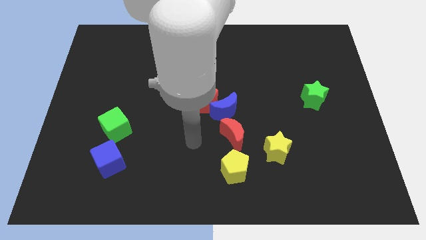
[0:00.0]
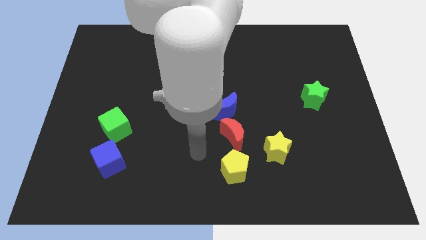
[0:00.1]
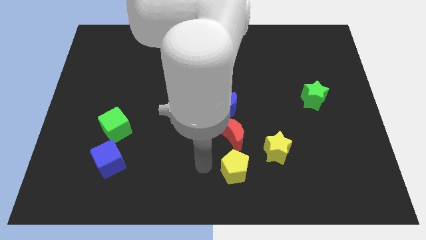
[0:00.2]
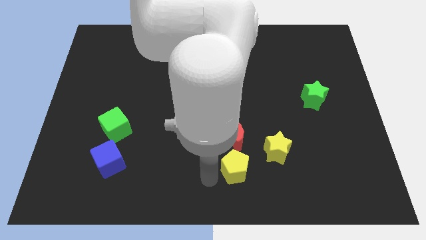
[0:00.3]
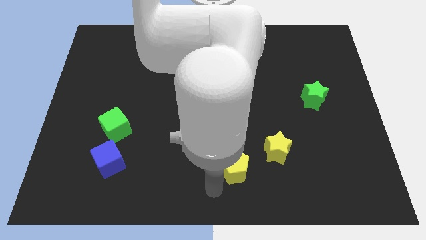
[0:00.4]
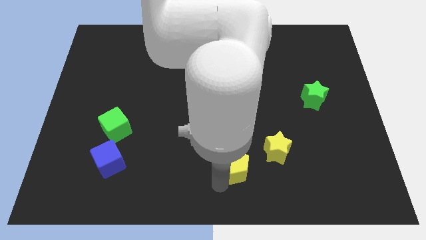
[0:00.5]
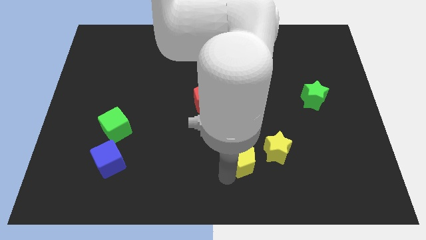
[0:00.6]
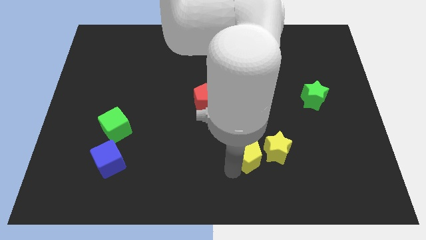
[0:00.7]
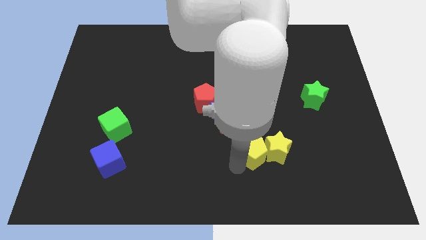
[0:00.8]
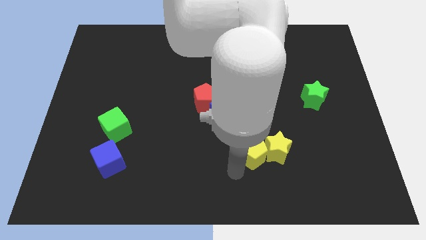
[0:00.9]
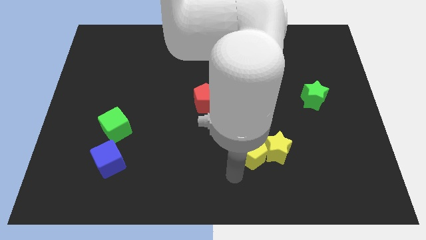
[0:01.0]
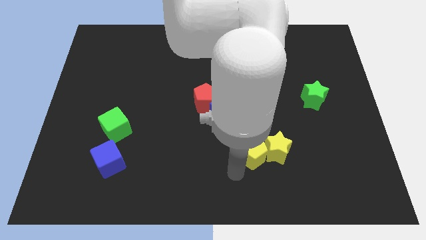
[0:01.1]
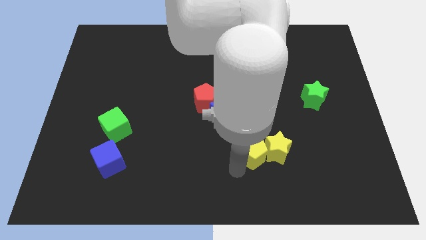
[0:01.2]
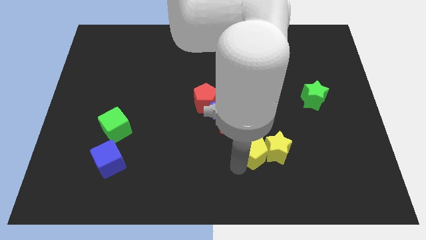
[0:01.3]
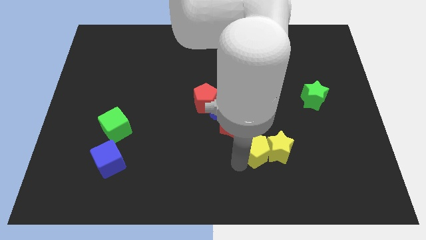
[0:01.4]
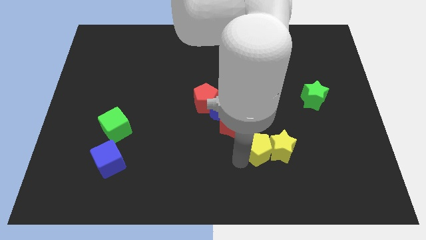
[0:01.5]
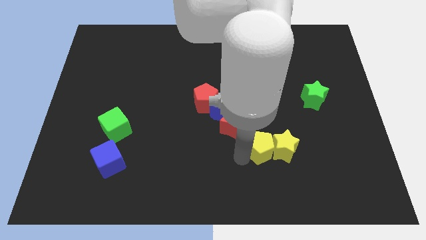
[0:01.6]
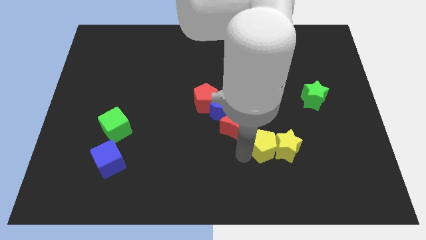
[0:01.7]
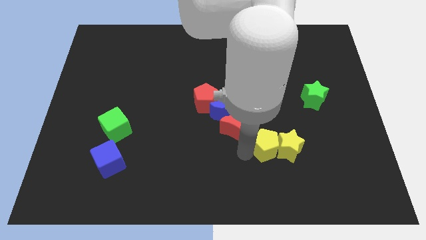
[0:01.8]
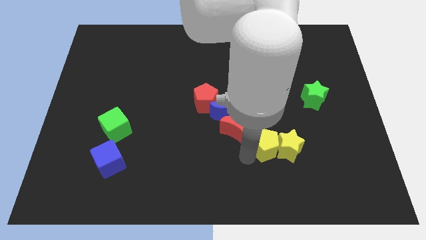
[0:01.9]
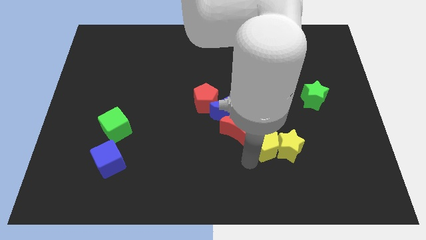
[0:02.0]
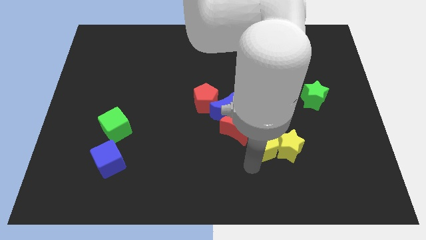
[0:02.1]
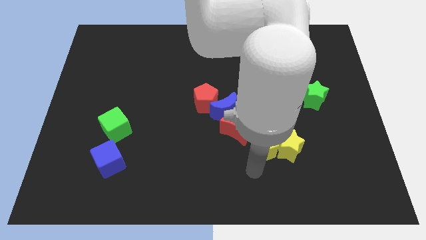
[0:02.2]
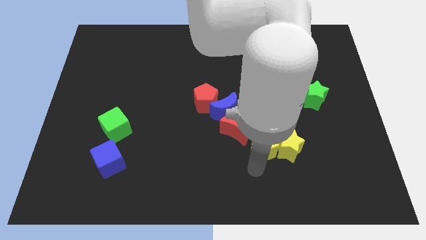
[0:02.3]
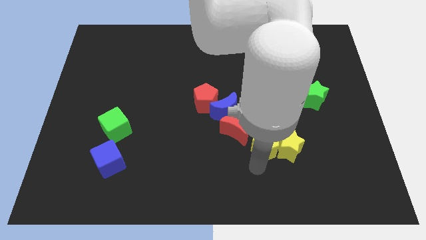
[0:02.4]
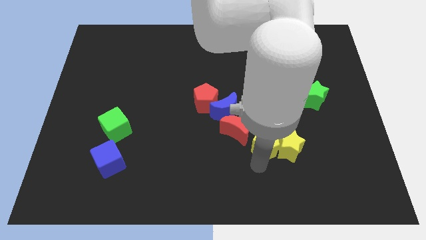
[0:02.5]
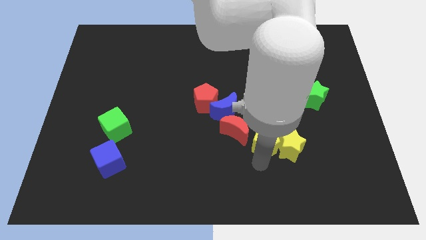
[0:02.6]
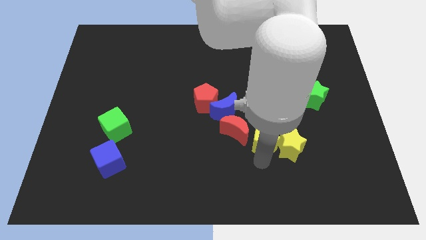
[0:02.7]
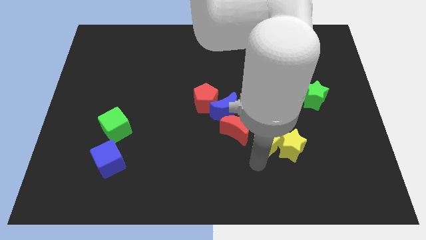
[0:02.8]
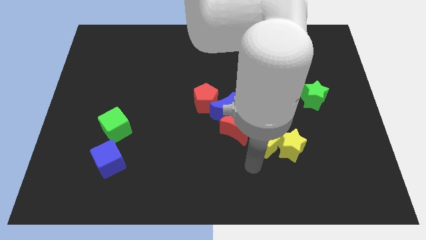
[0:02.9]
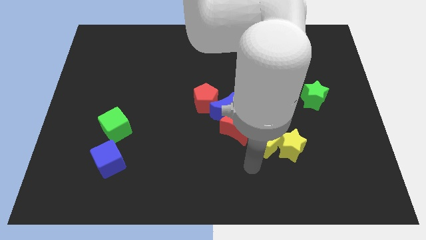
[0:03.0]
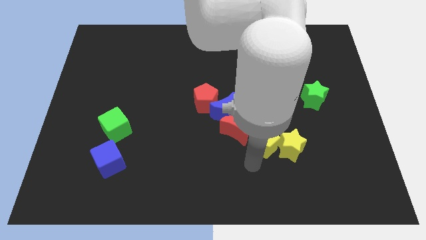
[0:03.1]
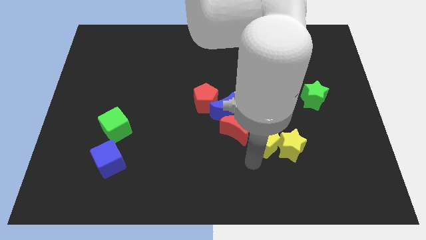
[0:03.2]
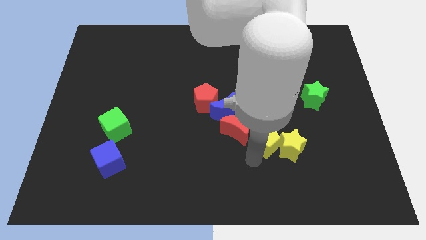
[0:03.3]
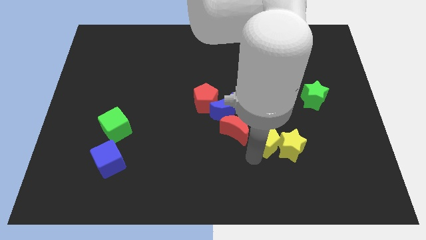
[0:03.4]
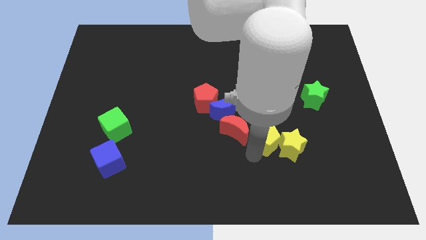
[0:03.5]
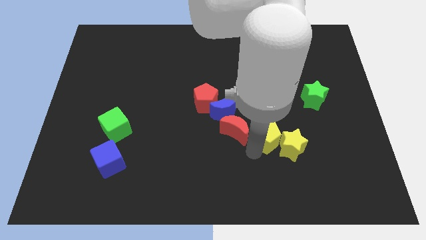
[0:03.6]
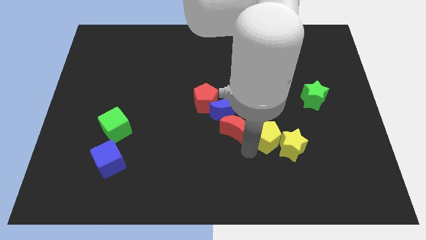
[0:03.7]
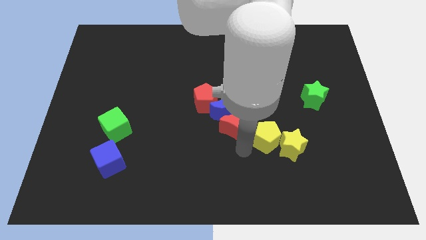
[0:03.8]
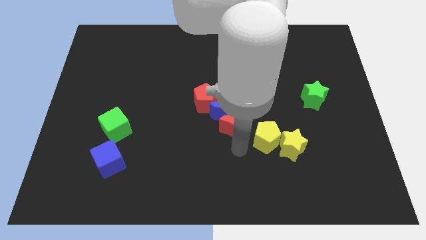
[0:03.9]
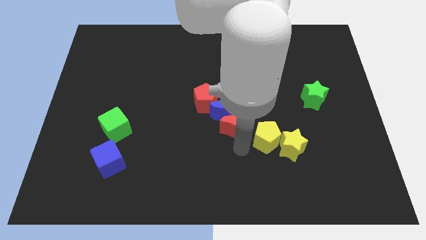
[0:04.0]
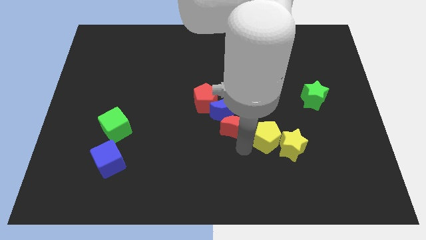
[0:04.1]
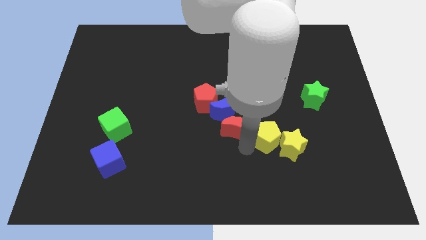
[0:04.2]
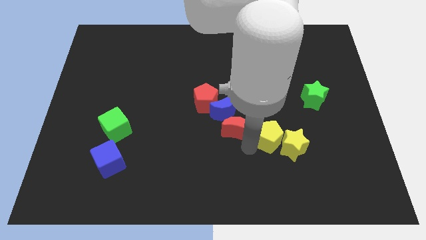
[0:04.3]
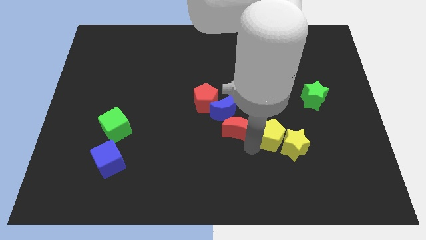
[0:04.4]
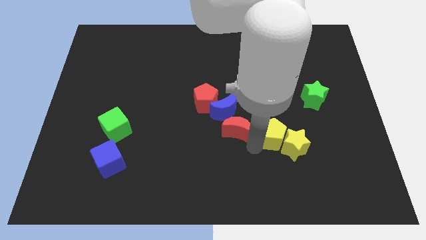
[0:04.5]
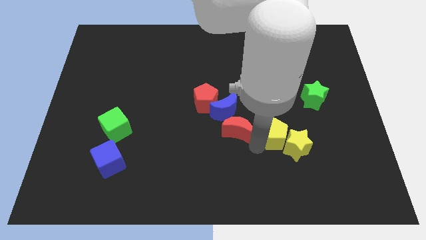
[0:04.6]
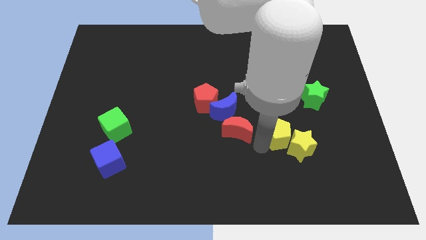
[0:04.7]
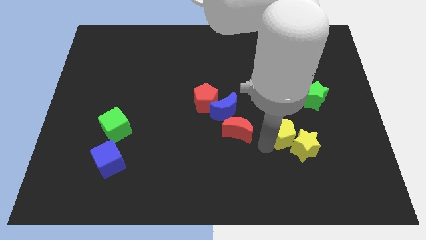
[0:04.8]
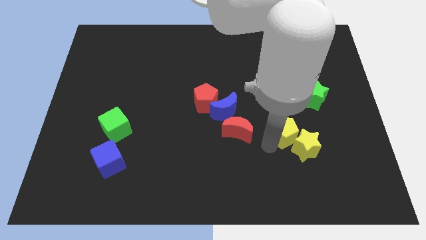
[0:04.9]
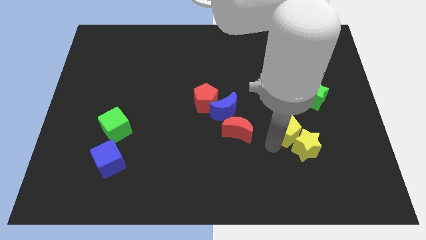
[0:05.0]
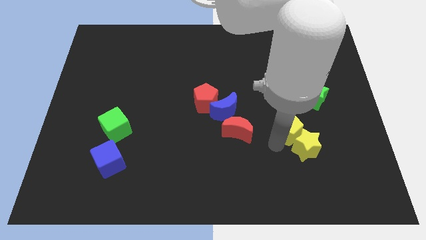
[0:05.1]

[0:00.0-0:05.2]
move the yellow pentagon diagonally down and to the left of the green star

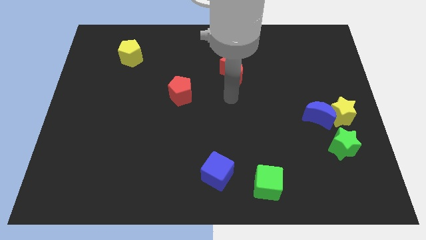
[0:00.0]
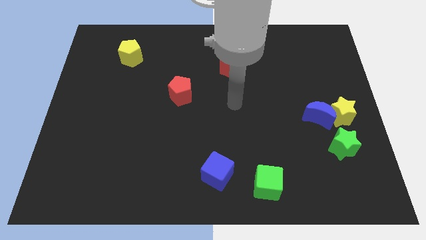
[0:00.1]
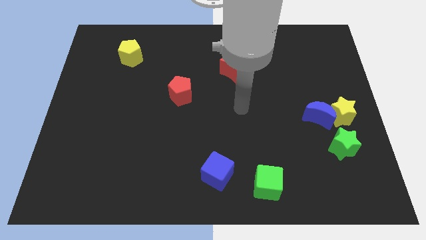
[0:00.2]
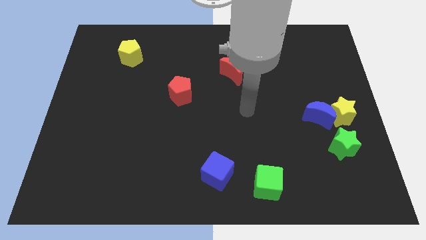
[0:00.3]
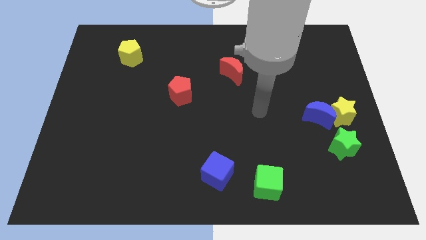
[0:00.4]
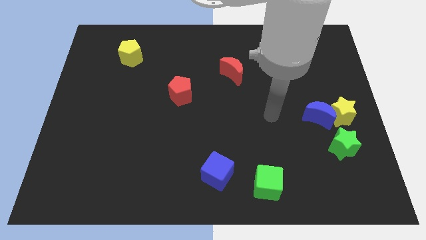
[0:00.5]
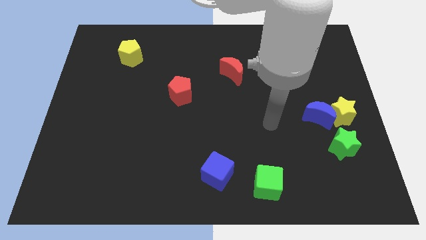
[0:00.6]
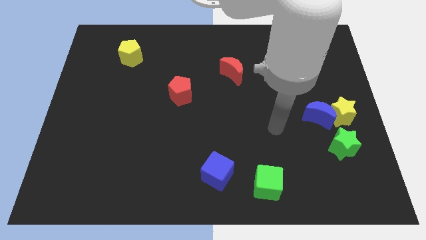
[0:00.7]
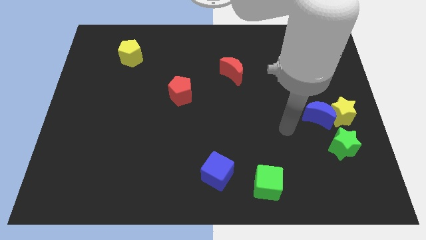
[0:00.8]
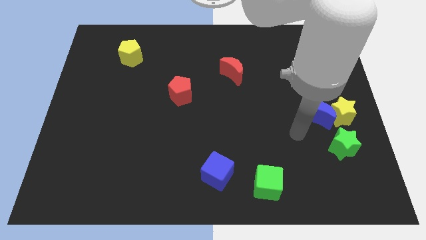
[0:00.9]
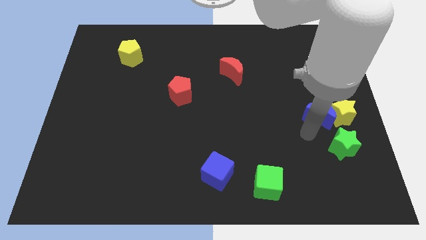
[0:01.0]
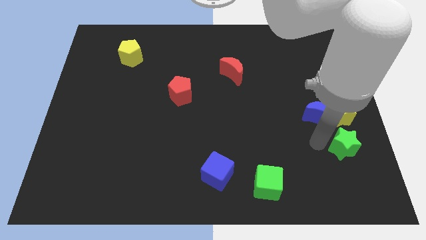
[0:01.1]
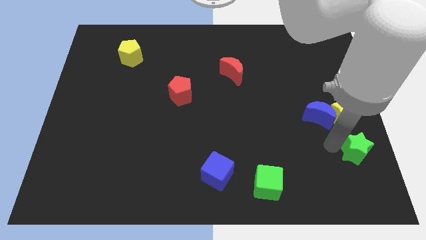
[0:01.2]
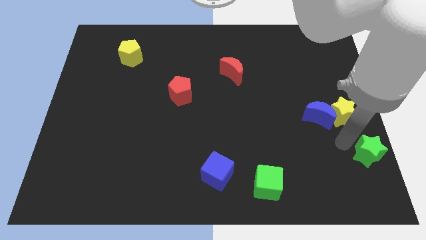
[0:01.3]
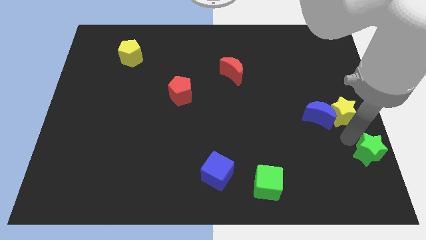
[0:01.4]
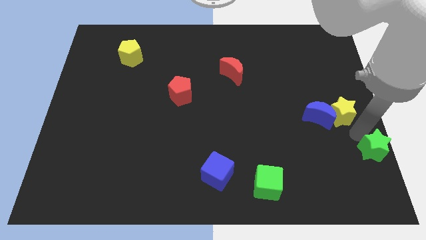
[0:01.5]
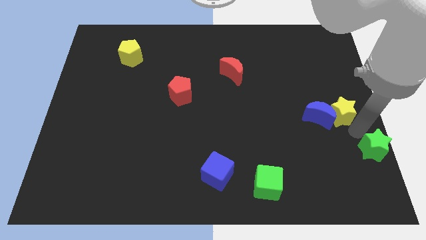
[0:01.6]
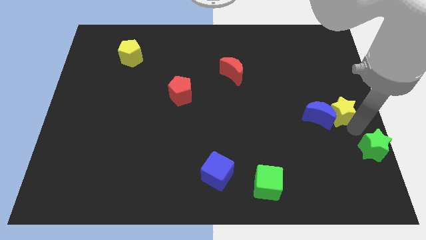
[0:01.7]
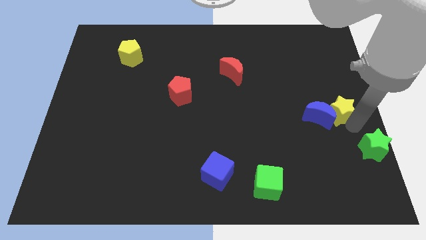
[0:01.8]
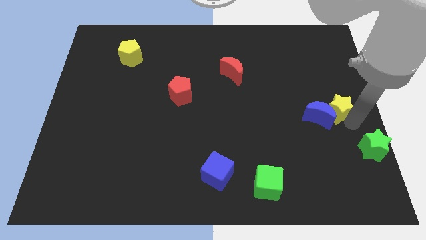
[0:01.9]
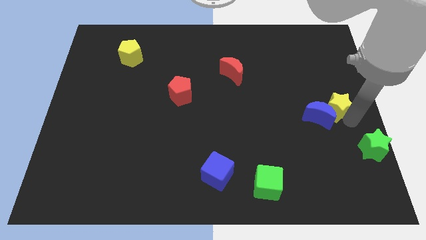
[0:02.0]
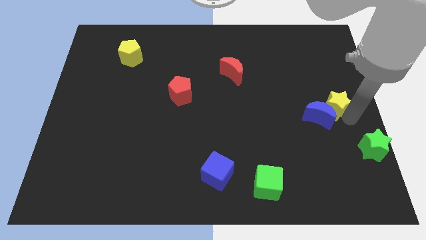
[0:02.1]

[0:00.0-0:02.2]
move the yellow star to the top of the blue moon
